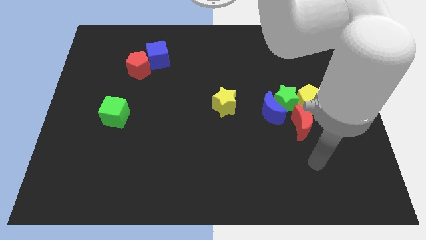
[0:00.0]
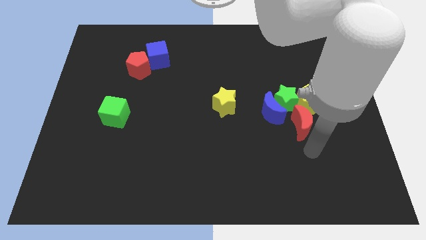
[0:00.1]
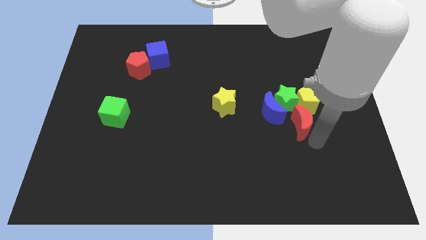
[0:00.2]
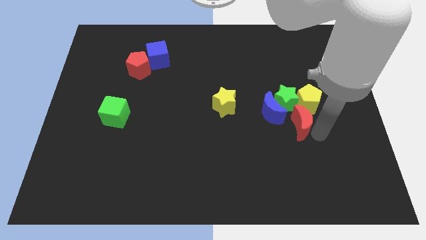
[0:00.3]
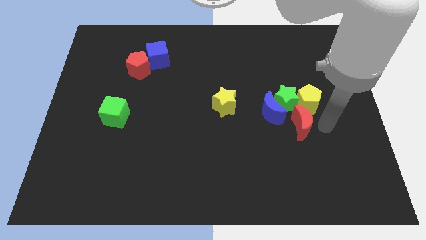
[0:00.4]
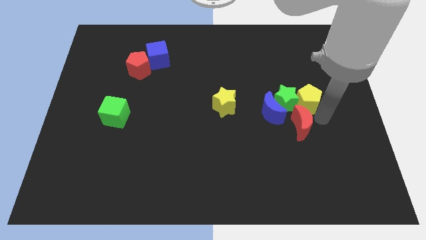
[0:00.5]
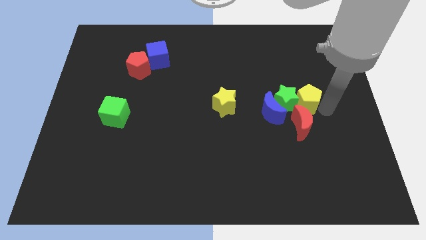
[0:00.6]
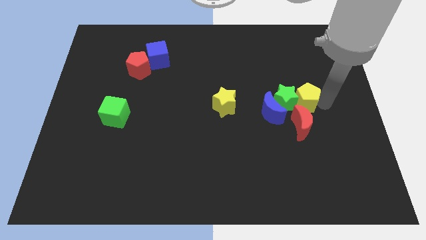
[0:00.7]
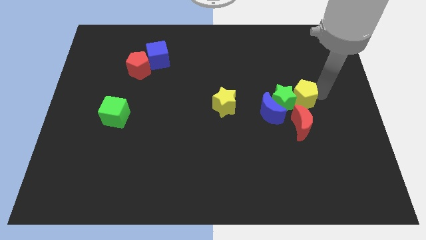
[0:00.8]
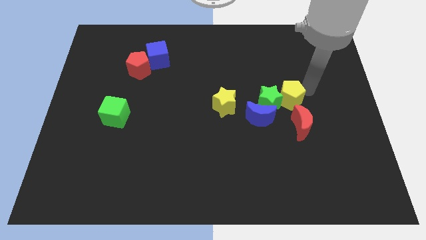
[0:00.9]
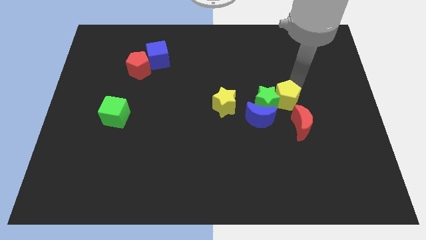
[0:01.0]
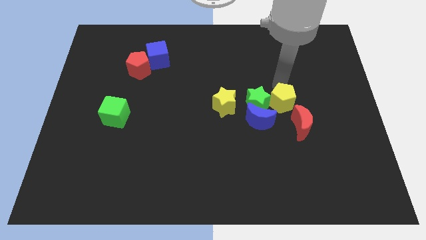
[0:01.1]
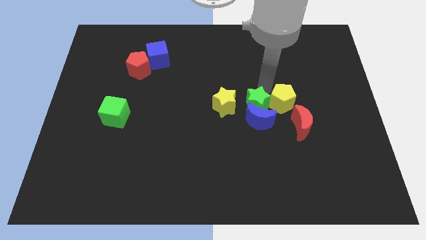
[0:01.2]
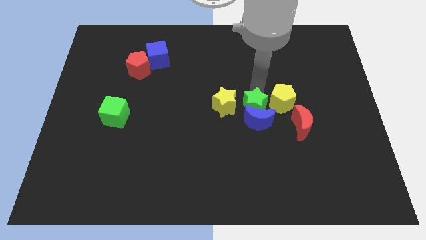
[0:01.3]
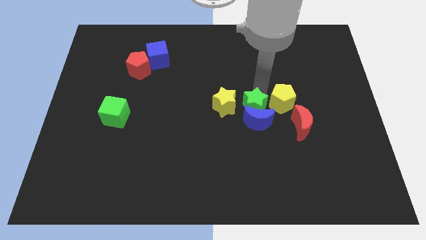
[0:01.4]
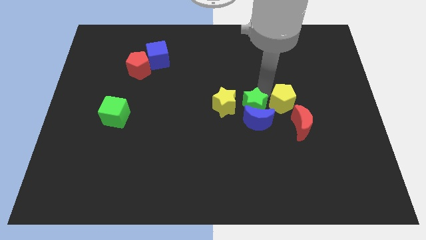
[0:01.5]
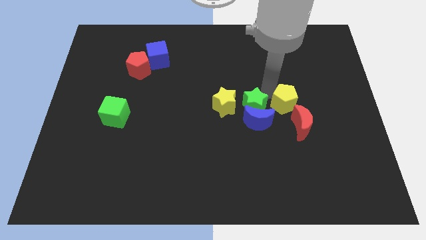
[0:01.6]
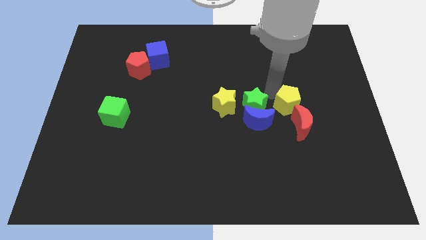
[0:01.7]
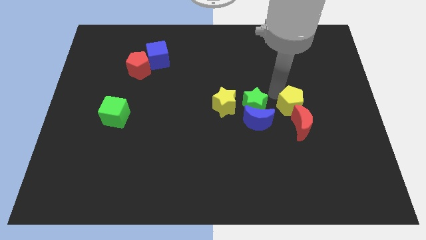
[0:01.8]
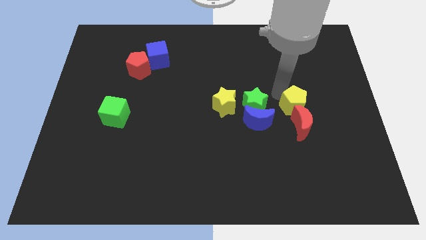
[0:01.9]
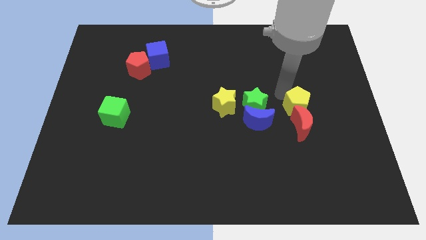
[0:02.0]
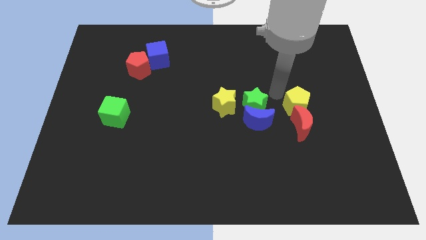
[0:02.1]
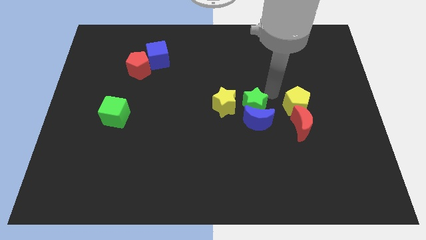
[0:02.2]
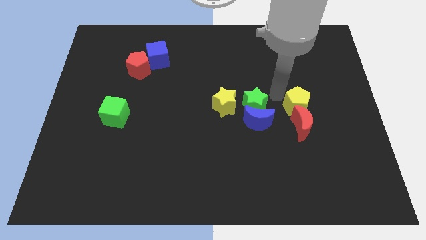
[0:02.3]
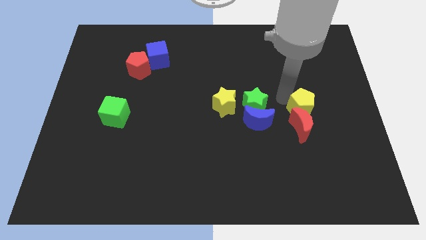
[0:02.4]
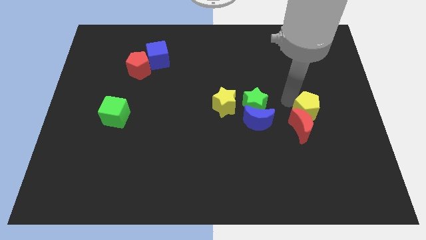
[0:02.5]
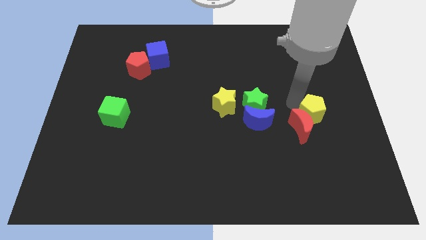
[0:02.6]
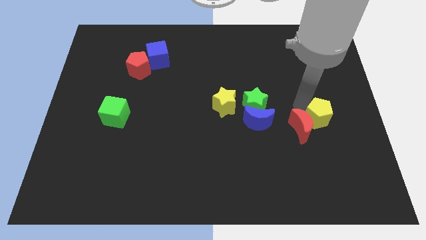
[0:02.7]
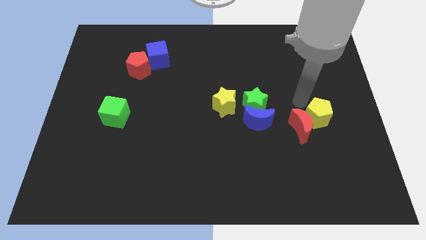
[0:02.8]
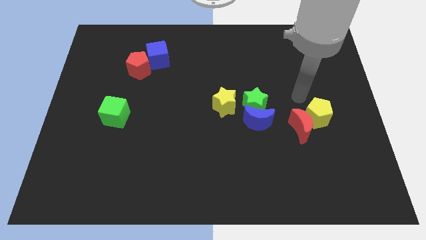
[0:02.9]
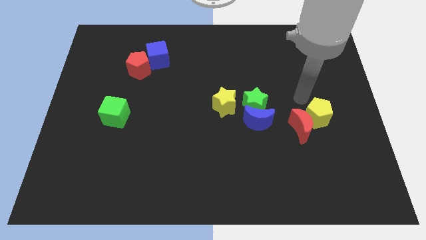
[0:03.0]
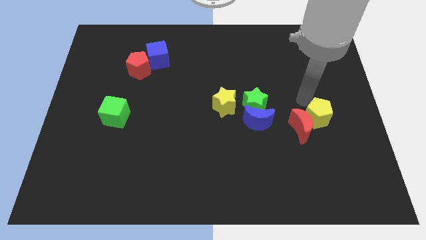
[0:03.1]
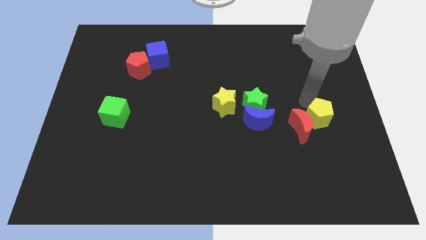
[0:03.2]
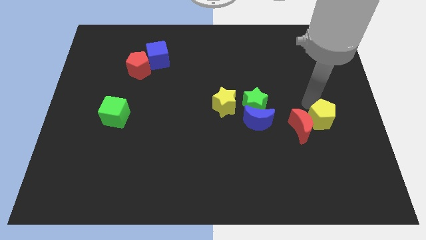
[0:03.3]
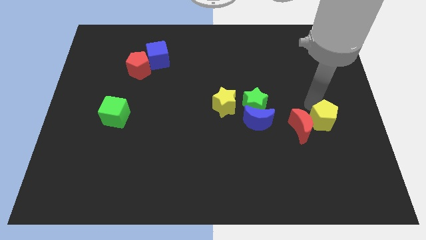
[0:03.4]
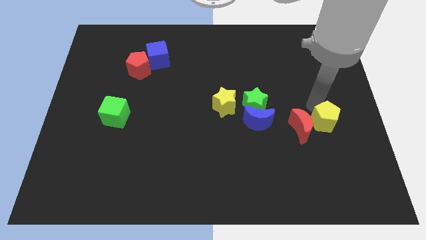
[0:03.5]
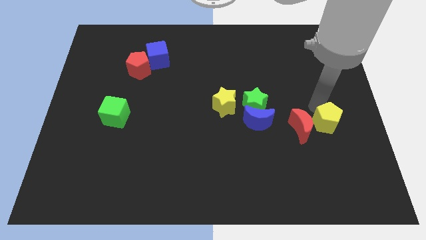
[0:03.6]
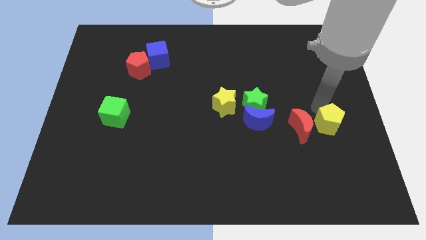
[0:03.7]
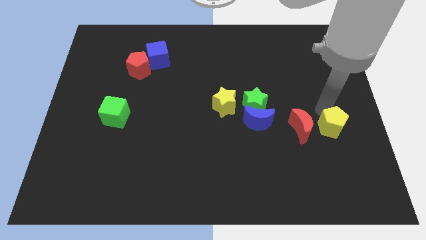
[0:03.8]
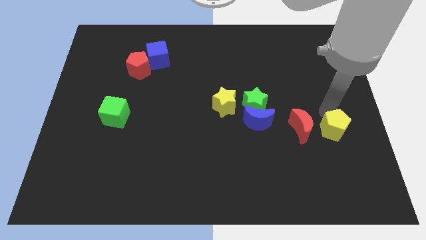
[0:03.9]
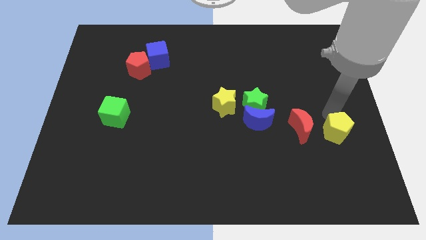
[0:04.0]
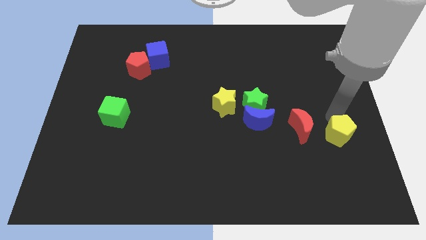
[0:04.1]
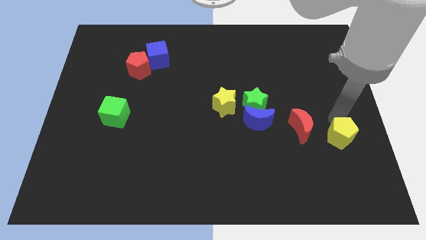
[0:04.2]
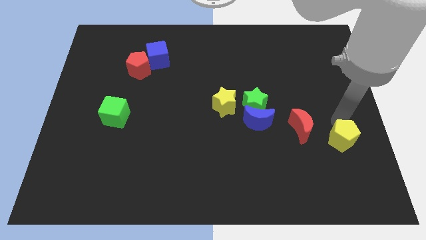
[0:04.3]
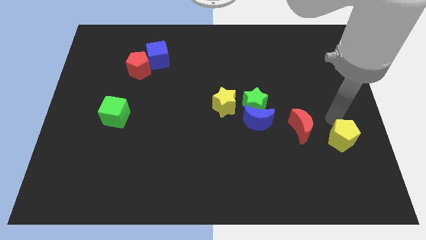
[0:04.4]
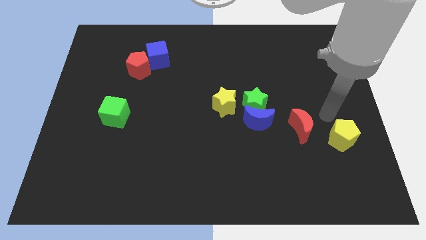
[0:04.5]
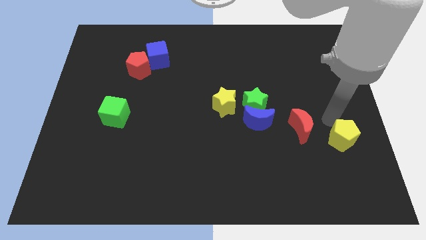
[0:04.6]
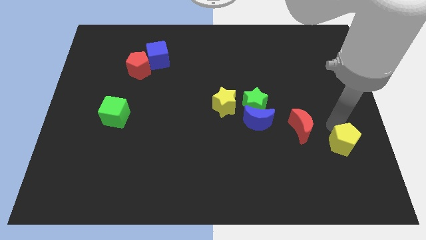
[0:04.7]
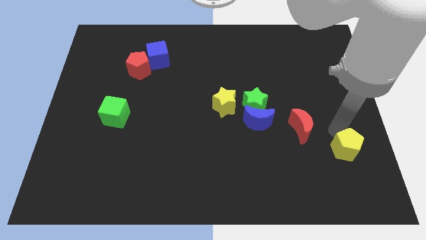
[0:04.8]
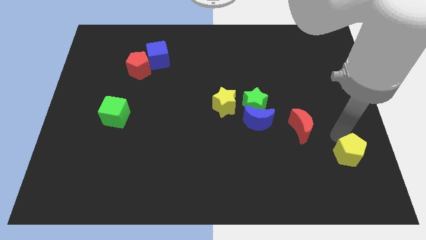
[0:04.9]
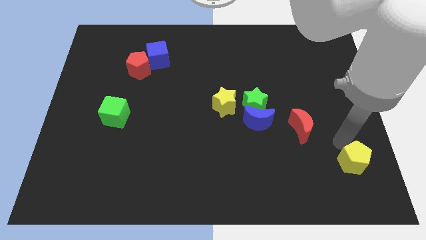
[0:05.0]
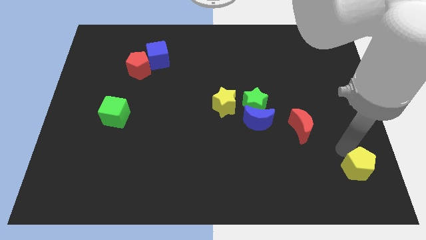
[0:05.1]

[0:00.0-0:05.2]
slide the yellow pentagon to the bottom right of the board
